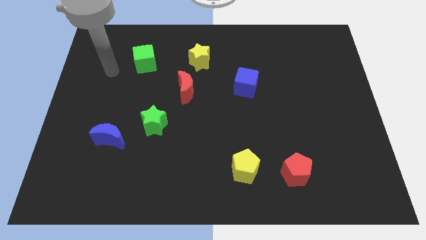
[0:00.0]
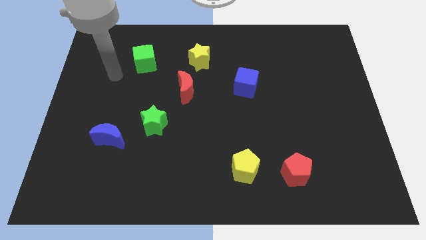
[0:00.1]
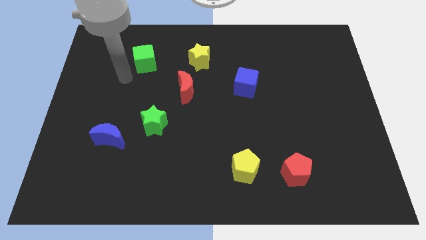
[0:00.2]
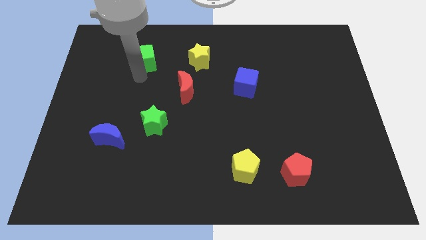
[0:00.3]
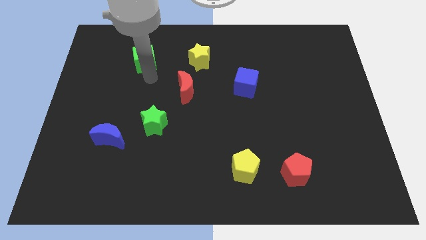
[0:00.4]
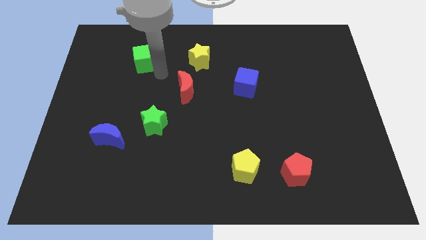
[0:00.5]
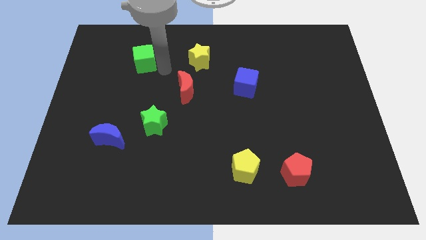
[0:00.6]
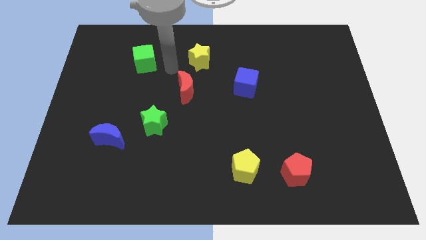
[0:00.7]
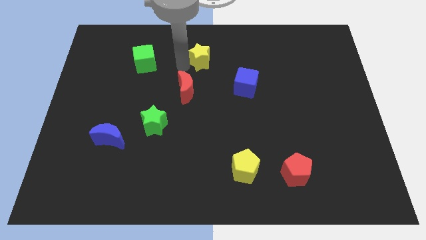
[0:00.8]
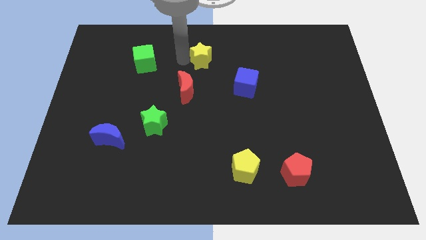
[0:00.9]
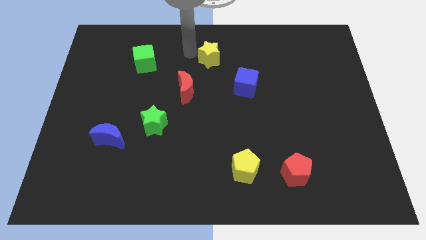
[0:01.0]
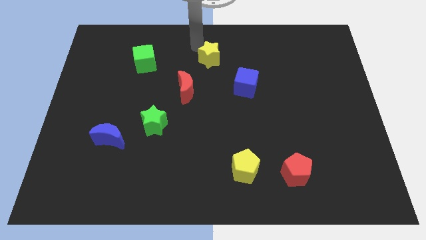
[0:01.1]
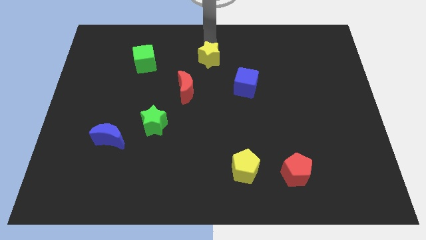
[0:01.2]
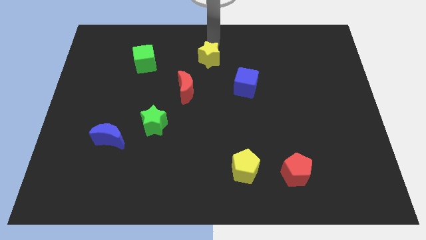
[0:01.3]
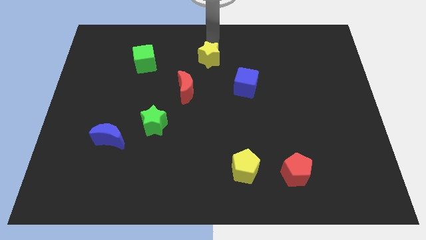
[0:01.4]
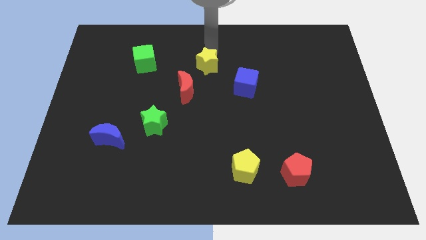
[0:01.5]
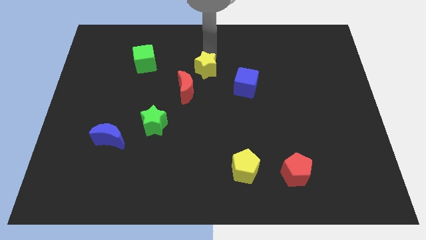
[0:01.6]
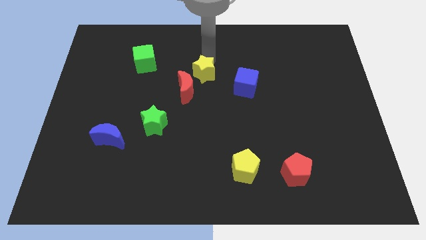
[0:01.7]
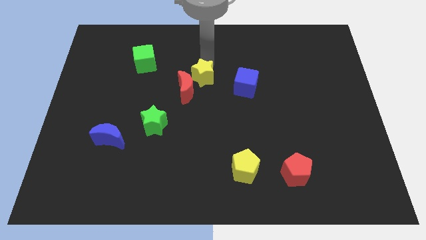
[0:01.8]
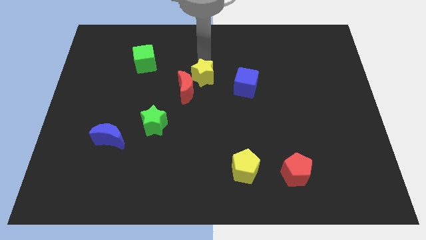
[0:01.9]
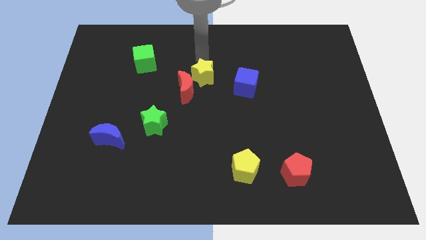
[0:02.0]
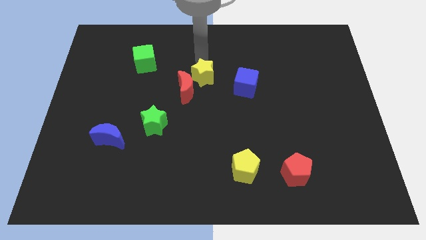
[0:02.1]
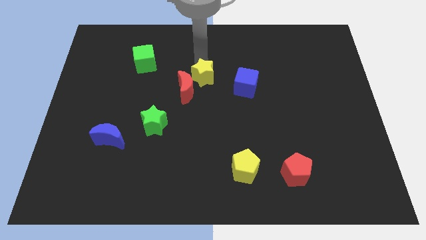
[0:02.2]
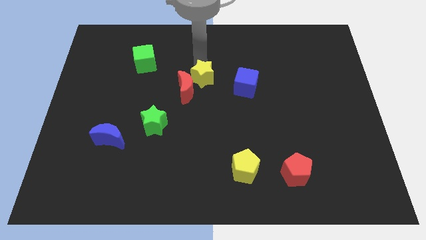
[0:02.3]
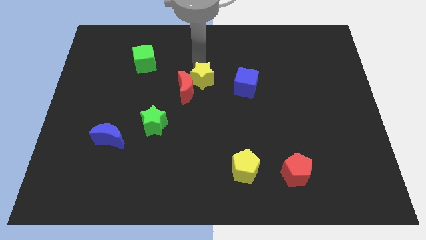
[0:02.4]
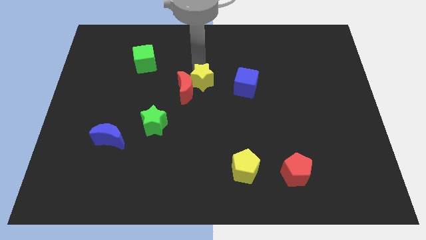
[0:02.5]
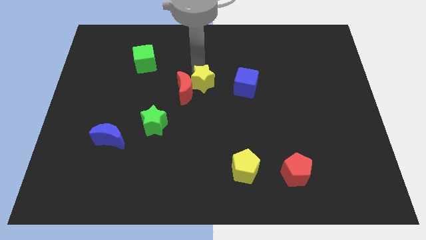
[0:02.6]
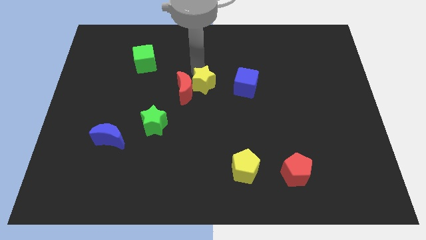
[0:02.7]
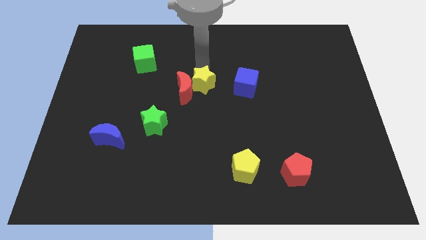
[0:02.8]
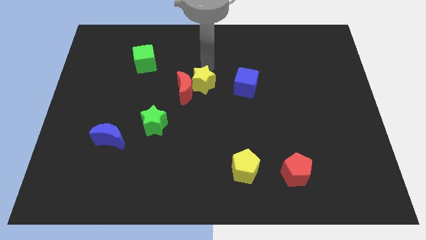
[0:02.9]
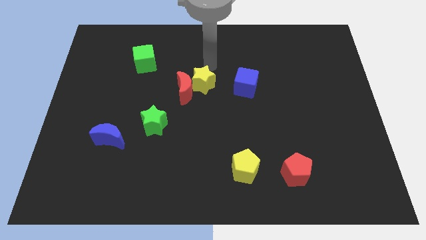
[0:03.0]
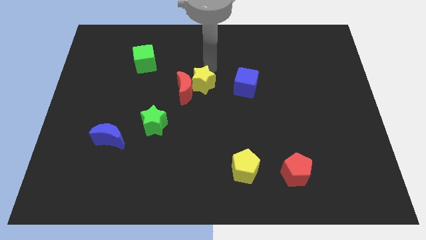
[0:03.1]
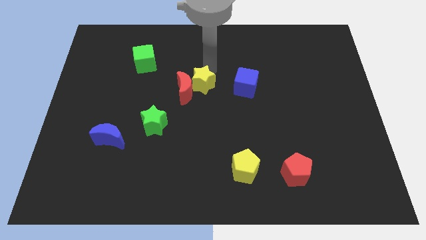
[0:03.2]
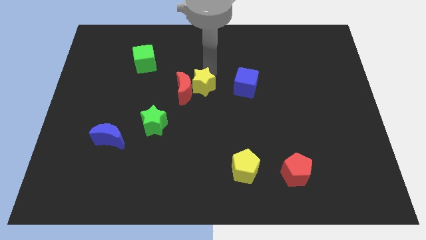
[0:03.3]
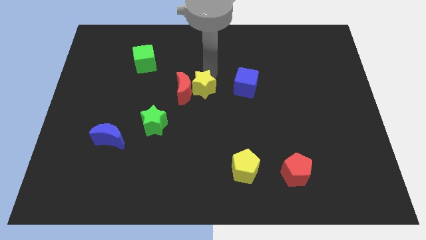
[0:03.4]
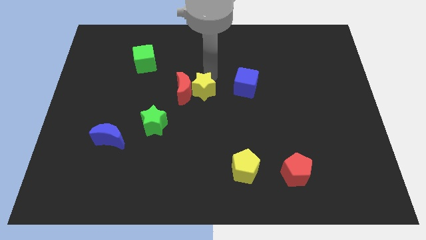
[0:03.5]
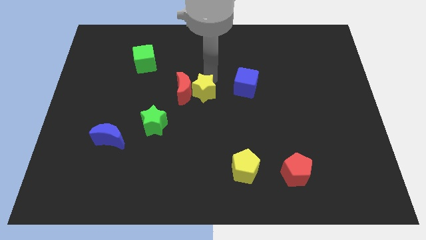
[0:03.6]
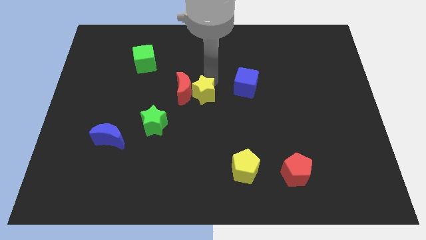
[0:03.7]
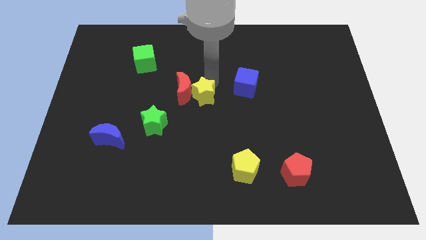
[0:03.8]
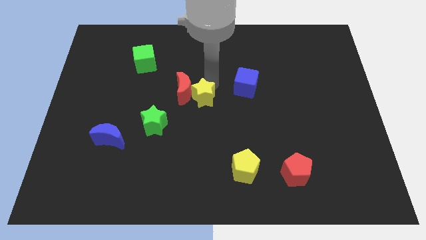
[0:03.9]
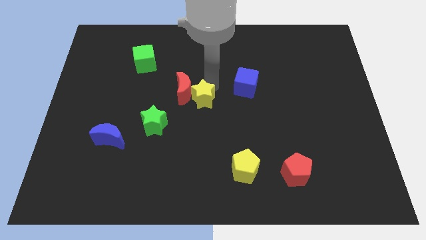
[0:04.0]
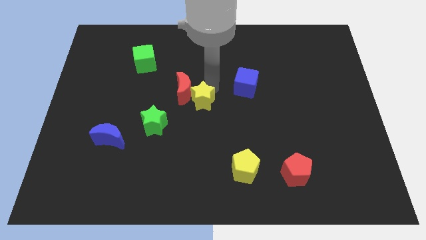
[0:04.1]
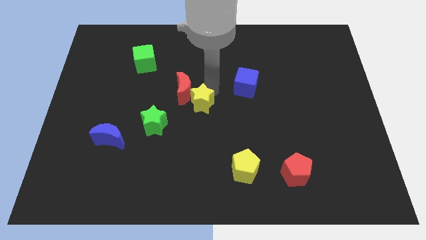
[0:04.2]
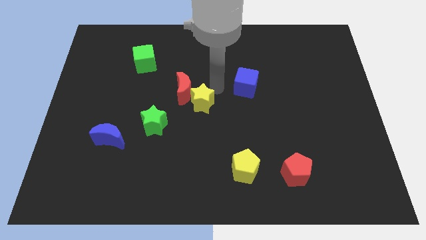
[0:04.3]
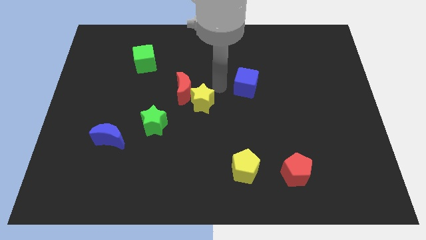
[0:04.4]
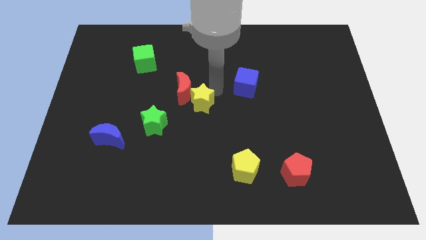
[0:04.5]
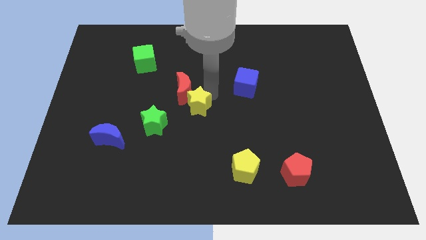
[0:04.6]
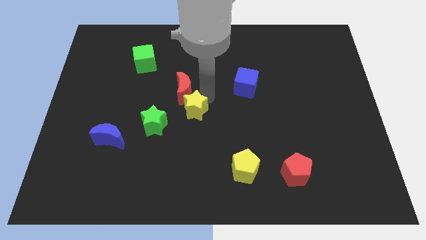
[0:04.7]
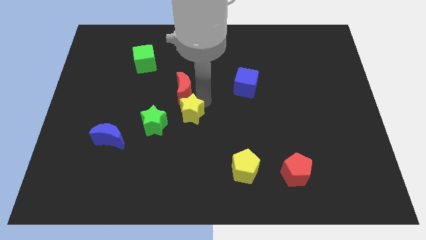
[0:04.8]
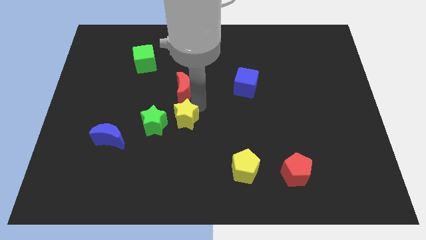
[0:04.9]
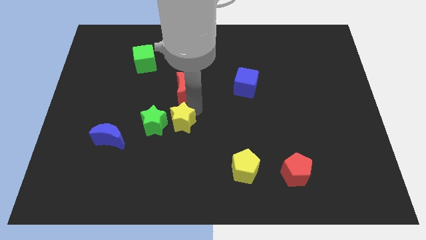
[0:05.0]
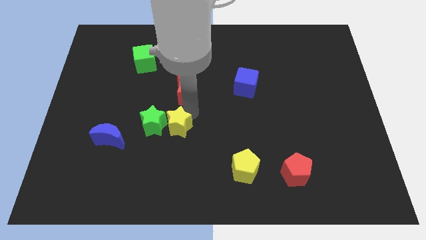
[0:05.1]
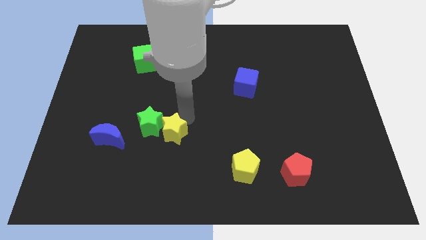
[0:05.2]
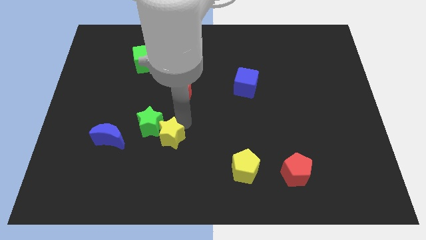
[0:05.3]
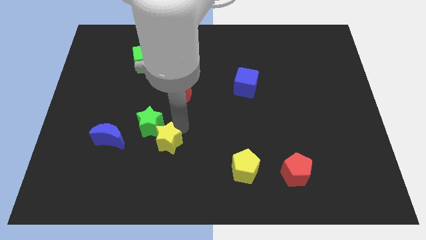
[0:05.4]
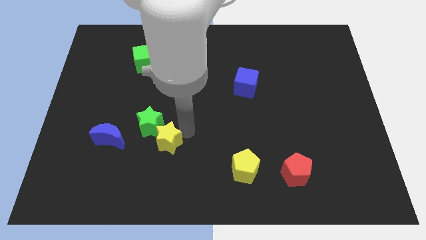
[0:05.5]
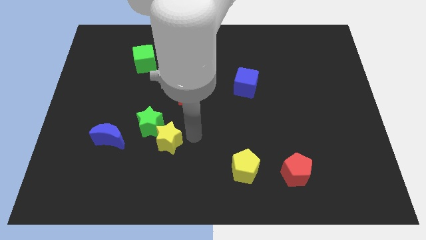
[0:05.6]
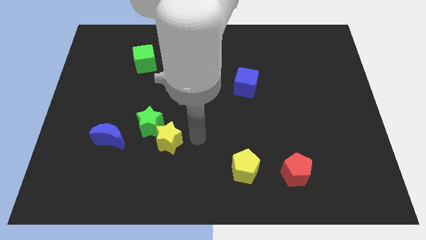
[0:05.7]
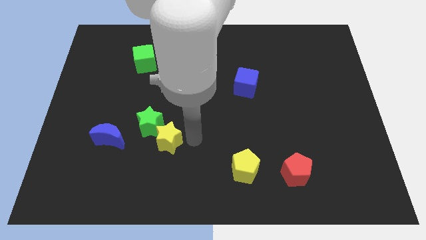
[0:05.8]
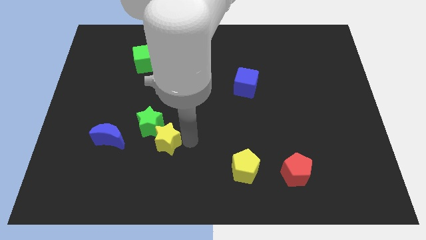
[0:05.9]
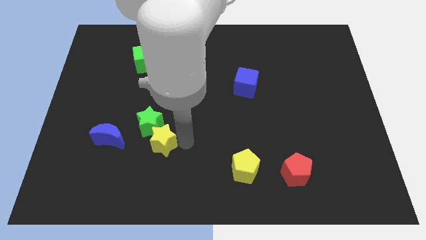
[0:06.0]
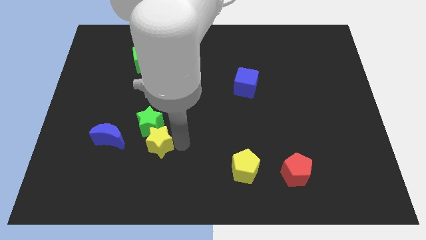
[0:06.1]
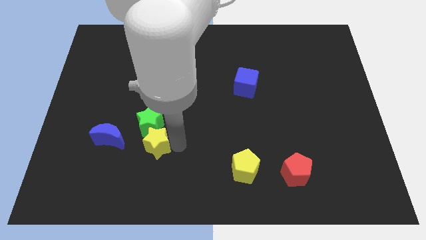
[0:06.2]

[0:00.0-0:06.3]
push the yellow star to the bottom left side of the green star

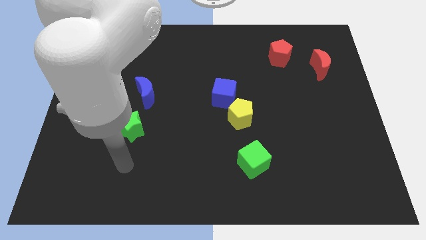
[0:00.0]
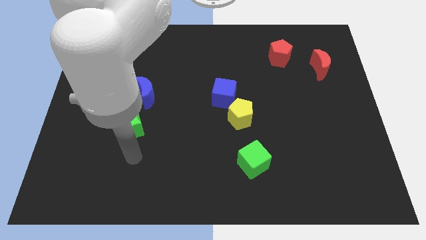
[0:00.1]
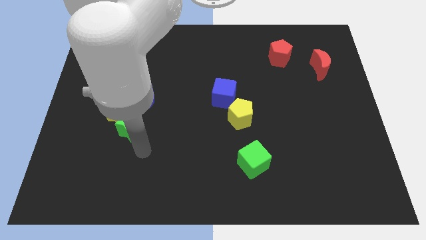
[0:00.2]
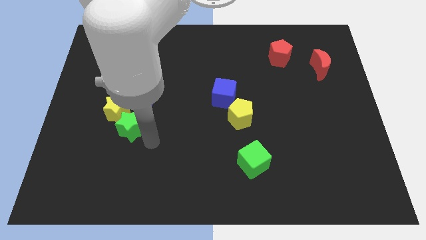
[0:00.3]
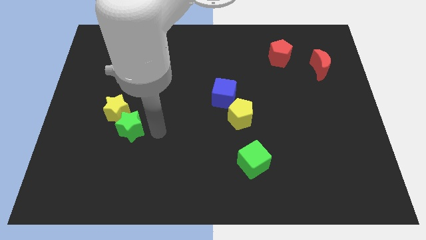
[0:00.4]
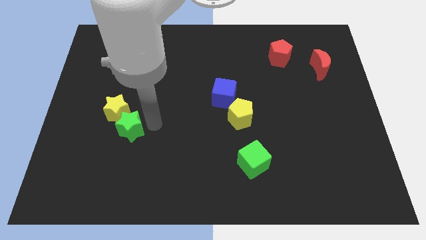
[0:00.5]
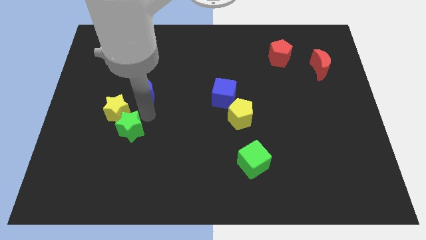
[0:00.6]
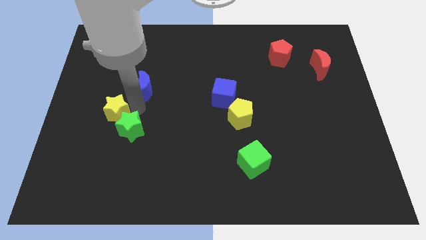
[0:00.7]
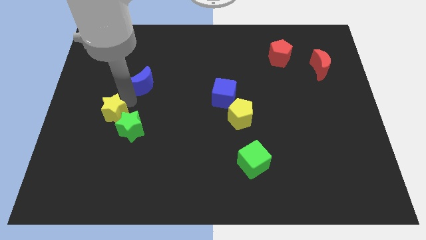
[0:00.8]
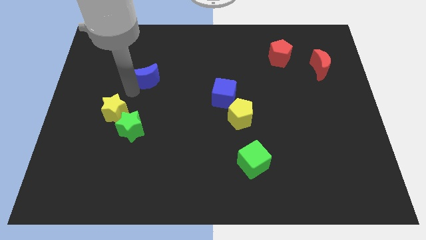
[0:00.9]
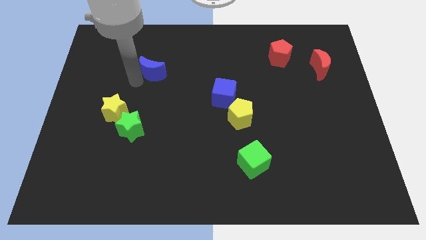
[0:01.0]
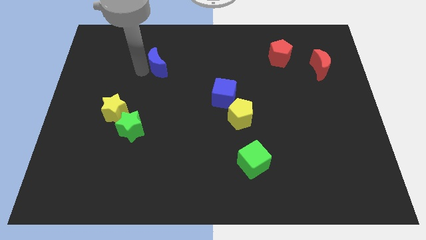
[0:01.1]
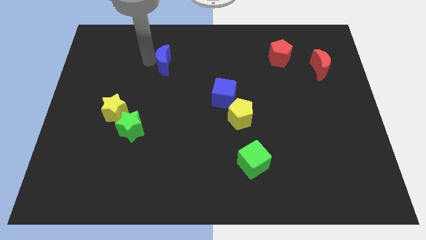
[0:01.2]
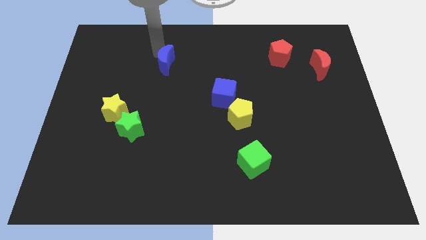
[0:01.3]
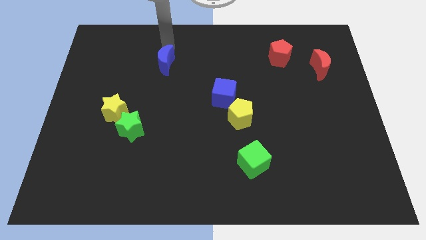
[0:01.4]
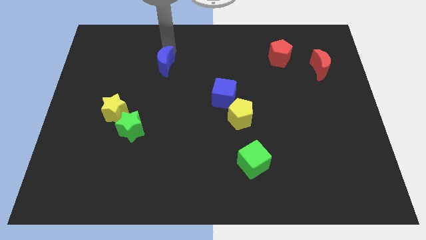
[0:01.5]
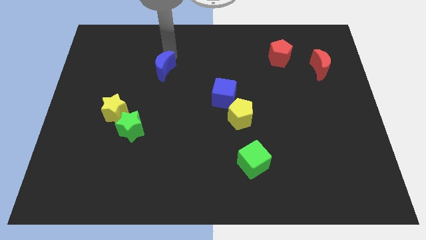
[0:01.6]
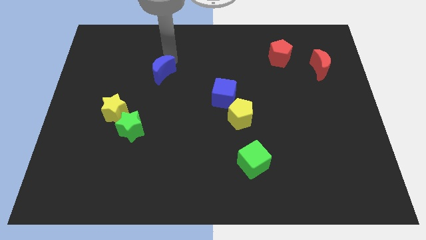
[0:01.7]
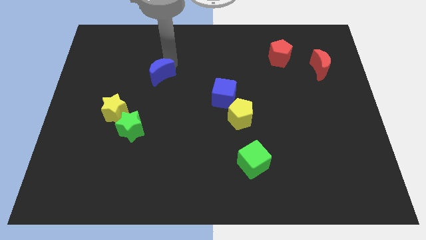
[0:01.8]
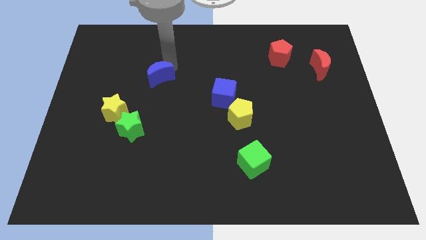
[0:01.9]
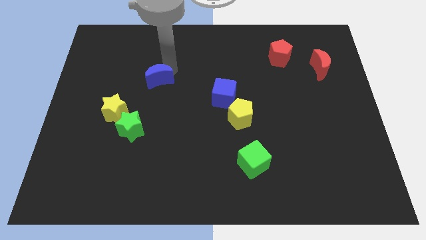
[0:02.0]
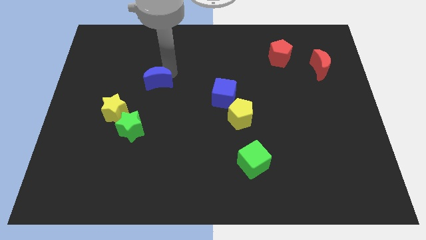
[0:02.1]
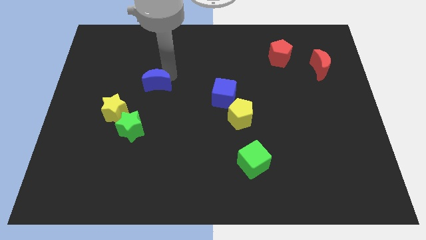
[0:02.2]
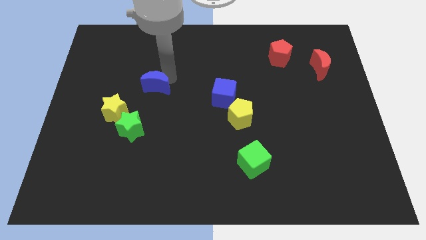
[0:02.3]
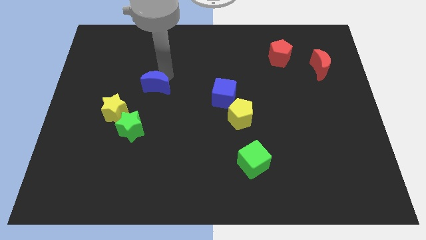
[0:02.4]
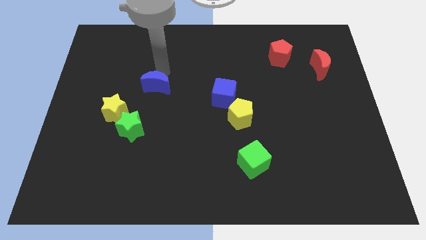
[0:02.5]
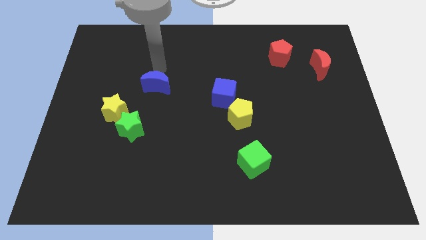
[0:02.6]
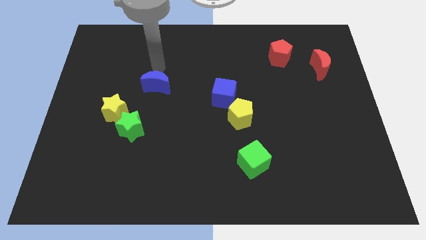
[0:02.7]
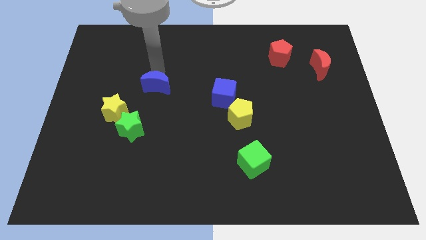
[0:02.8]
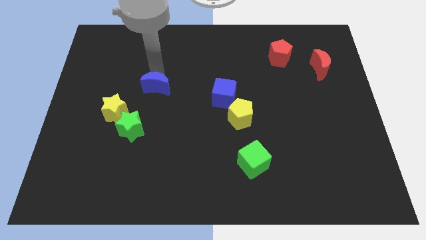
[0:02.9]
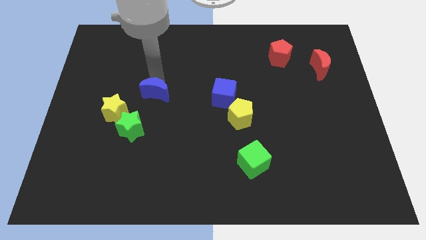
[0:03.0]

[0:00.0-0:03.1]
move the blue moon diagonally up and to the right of the green star
